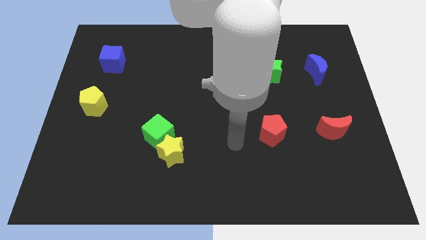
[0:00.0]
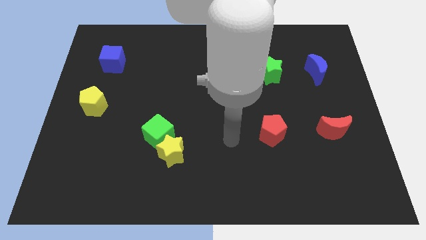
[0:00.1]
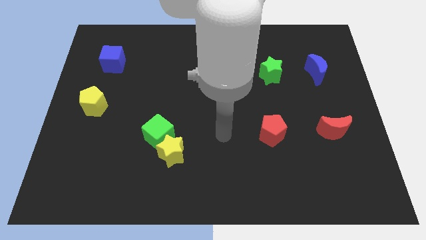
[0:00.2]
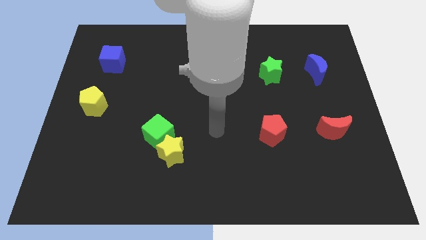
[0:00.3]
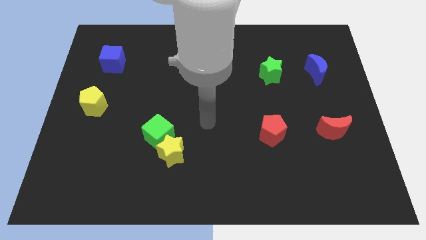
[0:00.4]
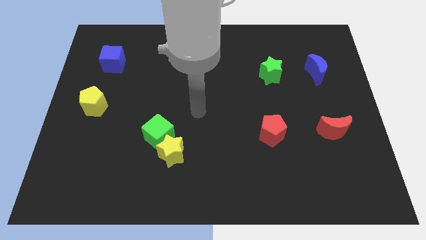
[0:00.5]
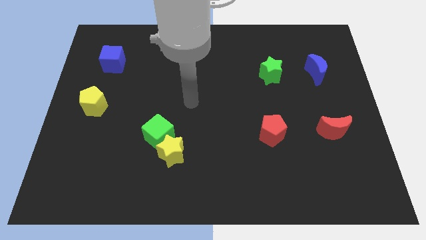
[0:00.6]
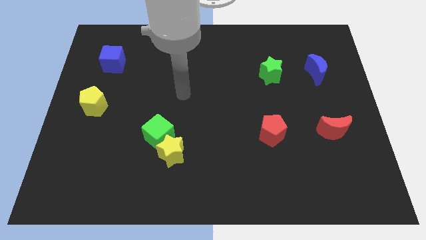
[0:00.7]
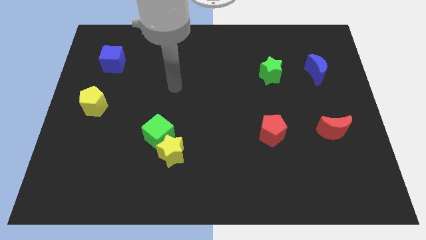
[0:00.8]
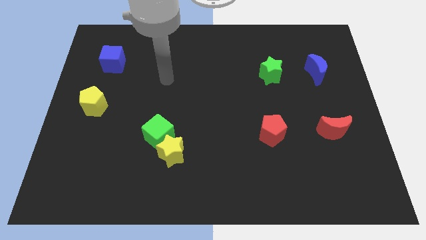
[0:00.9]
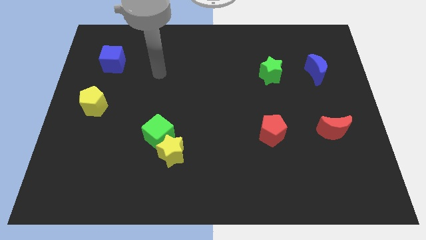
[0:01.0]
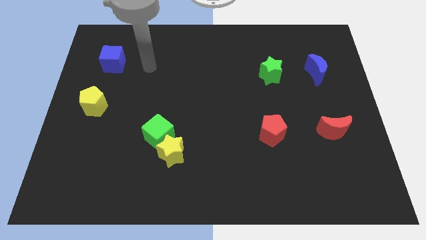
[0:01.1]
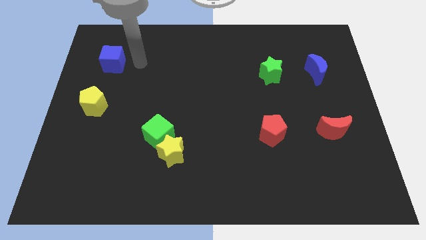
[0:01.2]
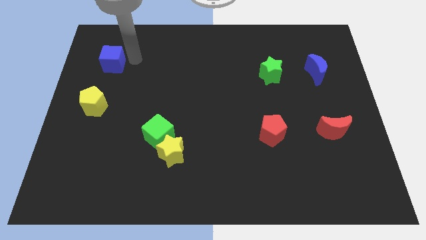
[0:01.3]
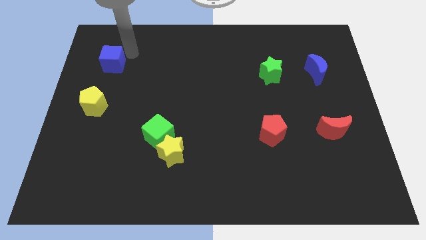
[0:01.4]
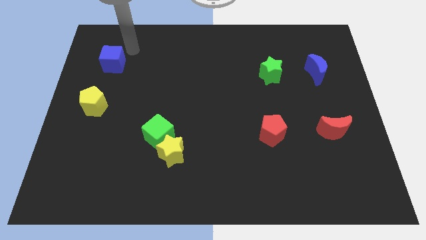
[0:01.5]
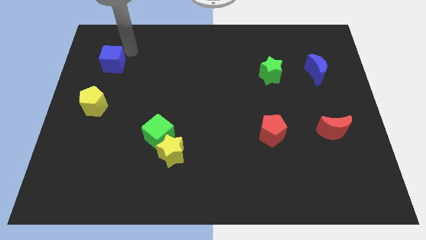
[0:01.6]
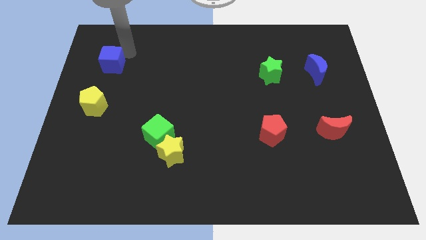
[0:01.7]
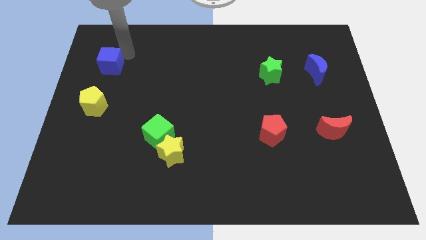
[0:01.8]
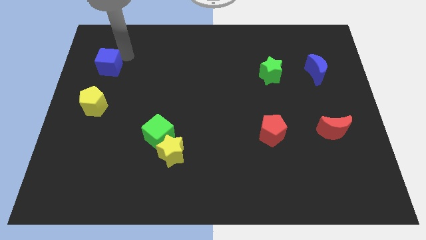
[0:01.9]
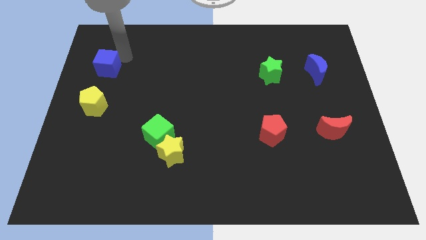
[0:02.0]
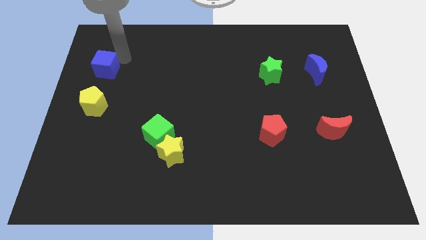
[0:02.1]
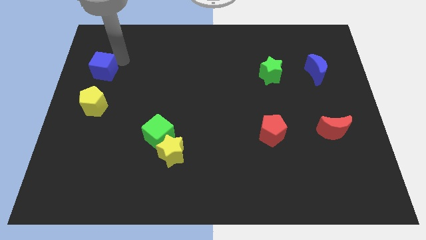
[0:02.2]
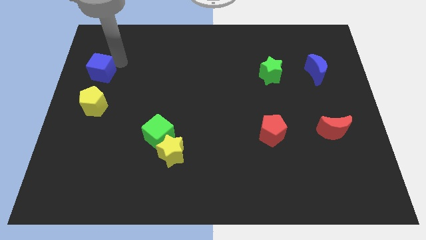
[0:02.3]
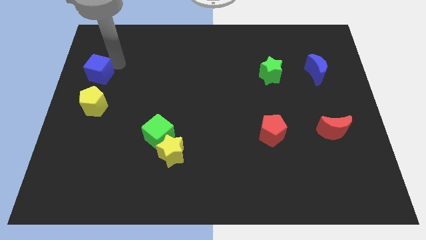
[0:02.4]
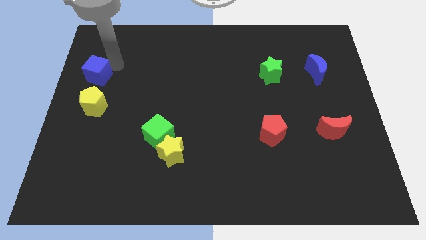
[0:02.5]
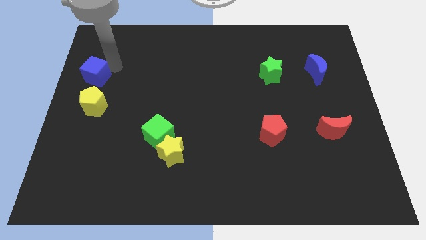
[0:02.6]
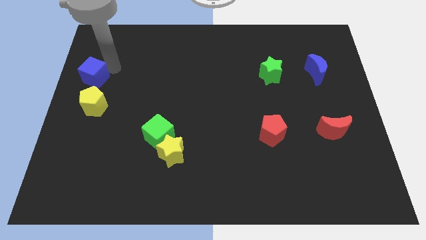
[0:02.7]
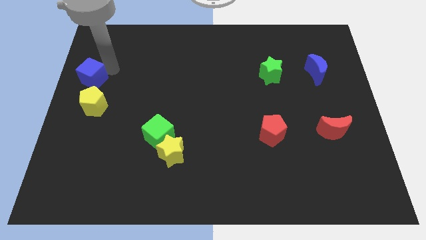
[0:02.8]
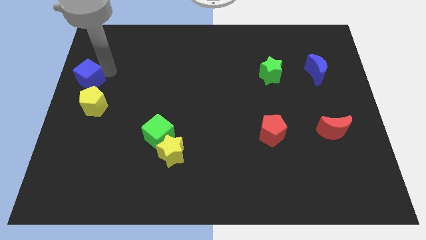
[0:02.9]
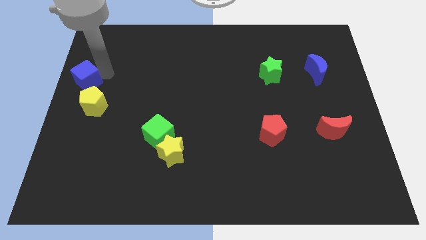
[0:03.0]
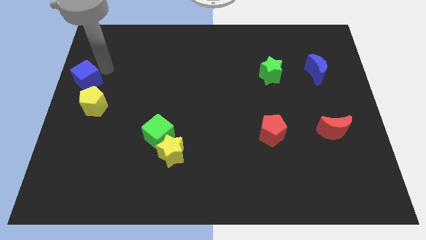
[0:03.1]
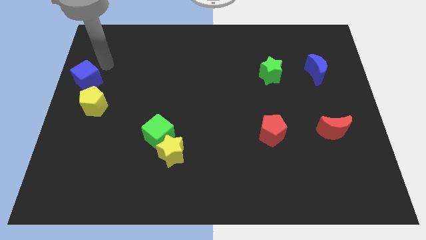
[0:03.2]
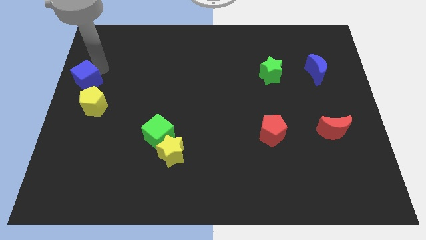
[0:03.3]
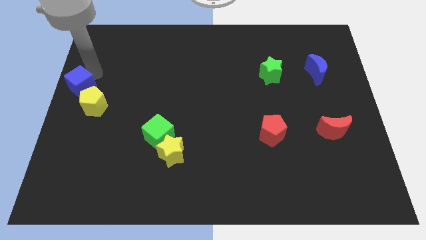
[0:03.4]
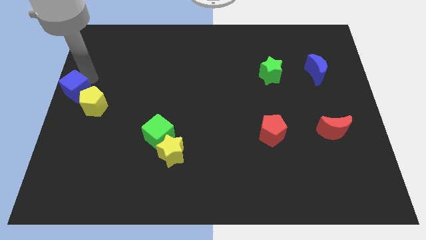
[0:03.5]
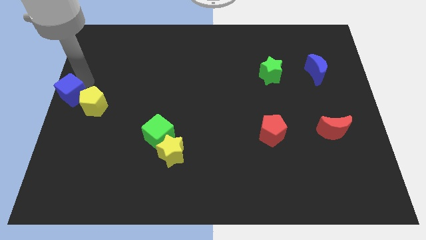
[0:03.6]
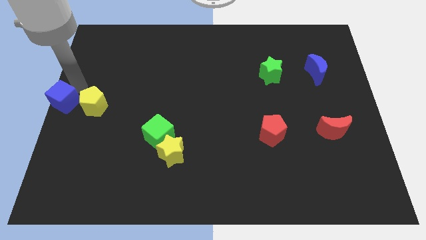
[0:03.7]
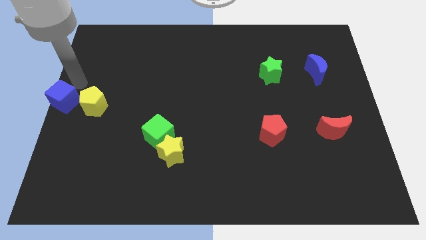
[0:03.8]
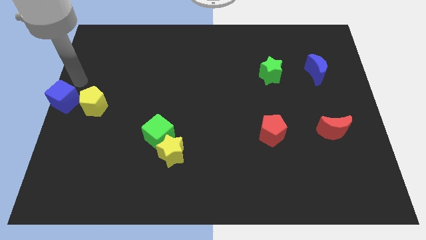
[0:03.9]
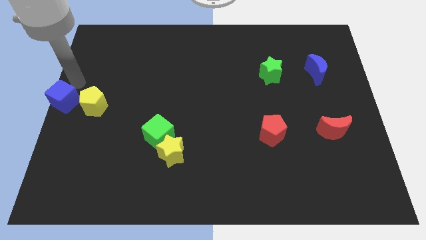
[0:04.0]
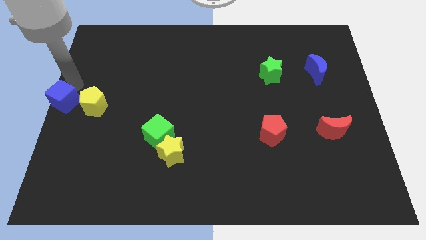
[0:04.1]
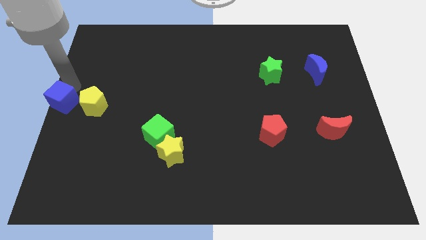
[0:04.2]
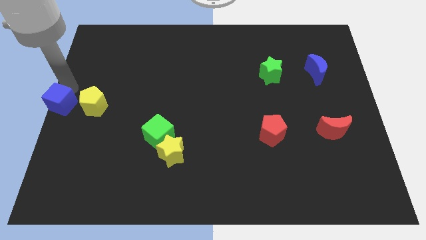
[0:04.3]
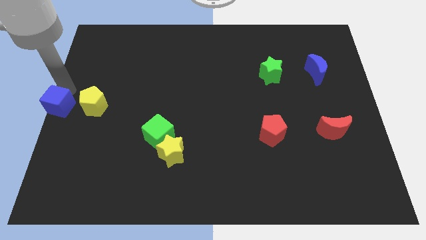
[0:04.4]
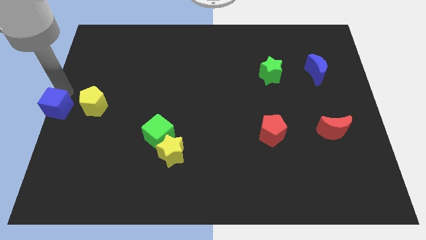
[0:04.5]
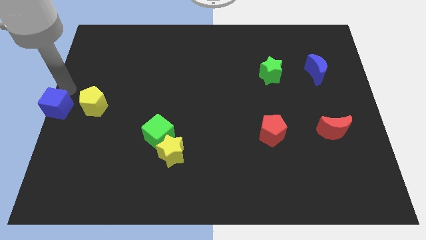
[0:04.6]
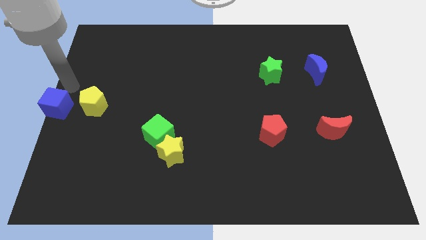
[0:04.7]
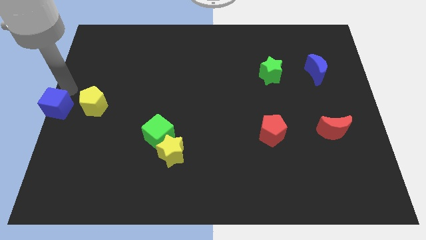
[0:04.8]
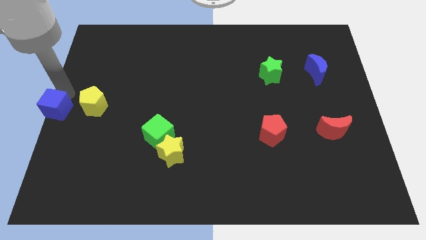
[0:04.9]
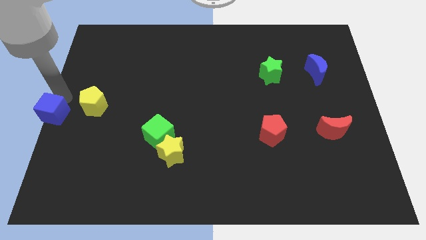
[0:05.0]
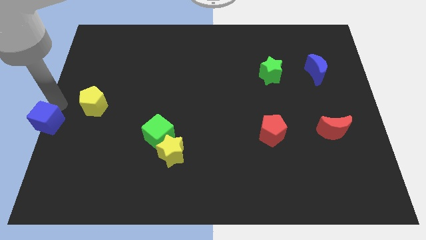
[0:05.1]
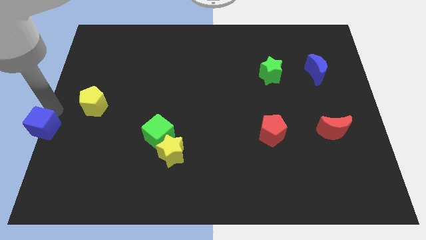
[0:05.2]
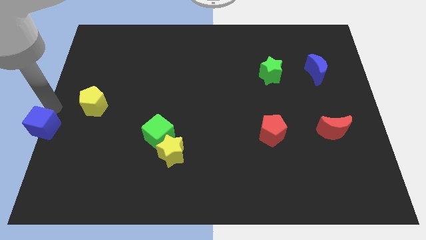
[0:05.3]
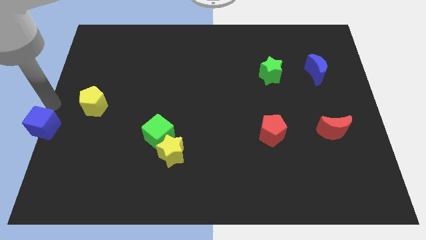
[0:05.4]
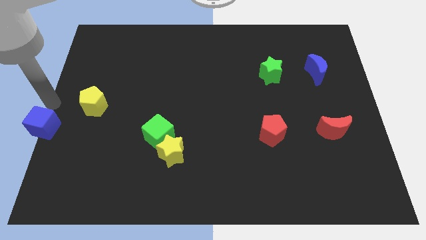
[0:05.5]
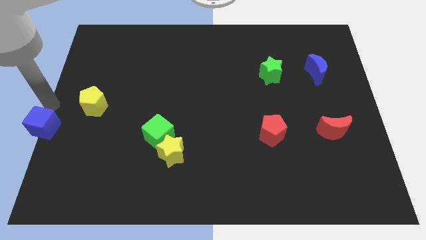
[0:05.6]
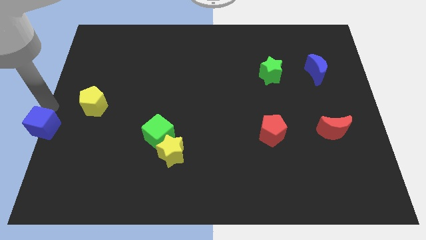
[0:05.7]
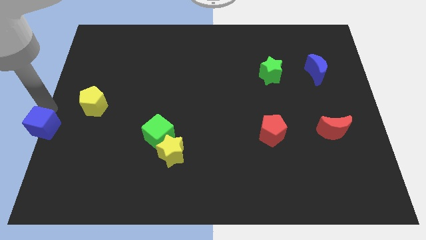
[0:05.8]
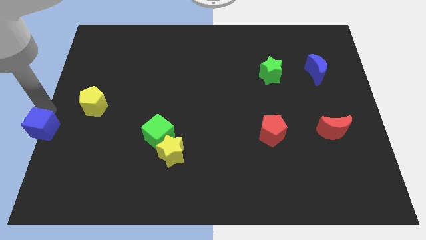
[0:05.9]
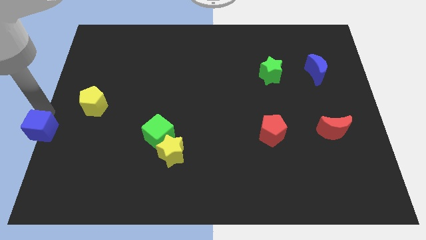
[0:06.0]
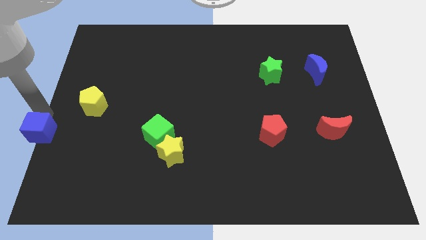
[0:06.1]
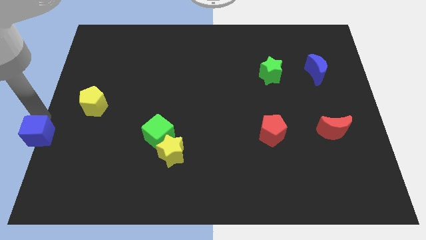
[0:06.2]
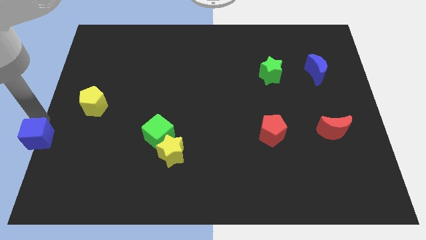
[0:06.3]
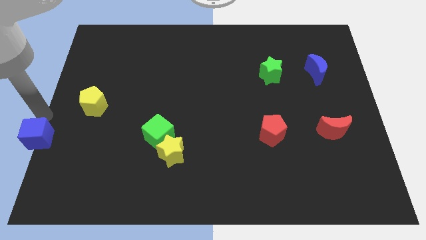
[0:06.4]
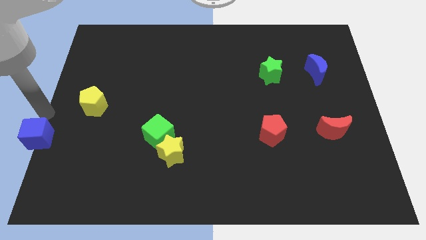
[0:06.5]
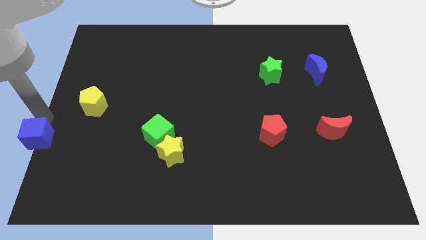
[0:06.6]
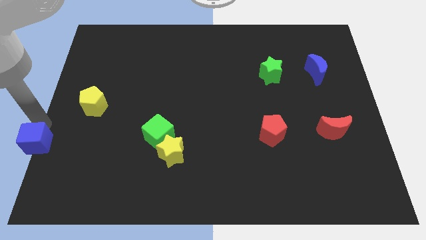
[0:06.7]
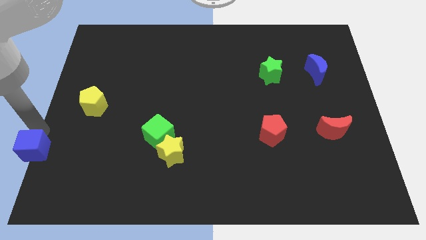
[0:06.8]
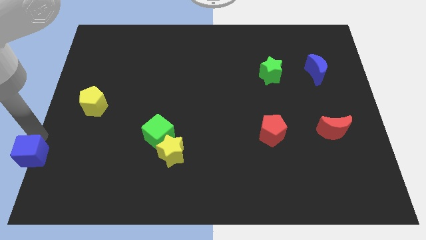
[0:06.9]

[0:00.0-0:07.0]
push the blue cube to the lower left corner
